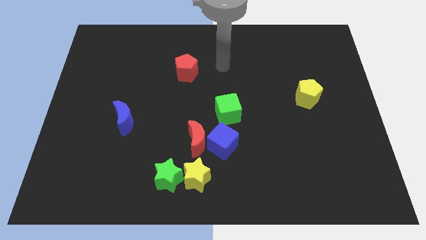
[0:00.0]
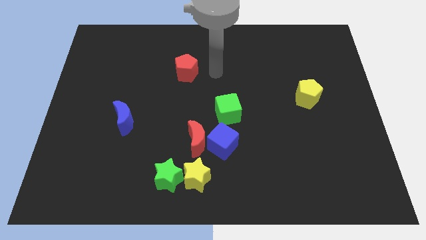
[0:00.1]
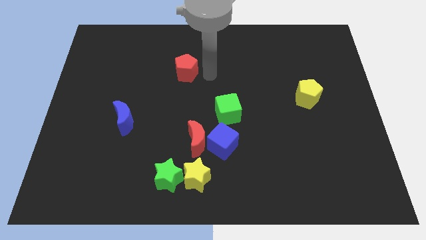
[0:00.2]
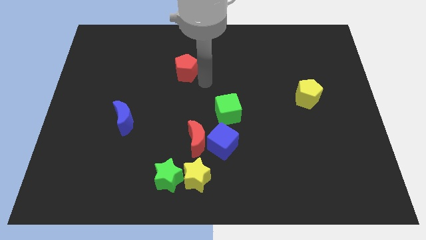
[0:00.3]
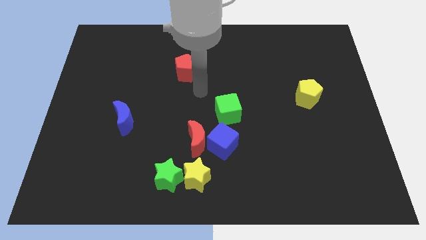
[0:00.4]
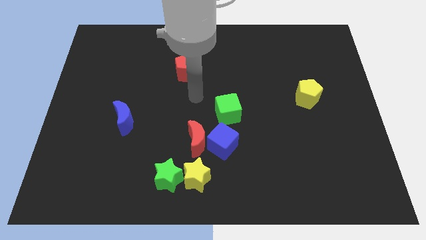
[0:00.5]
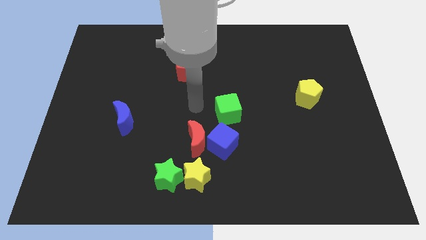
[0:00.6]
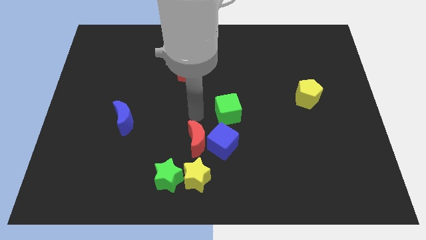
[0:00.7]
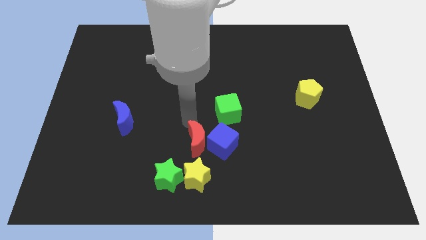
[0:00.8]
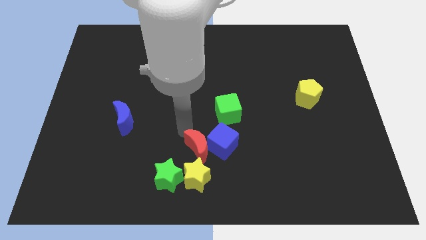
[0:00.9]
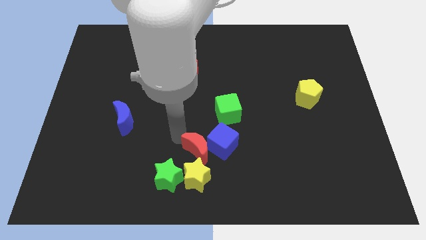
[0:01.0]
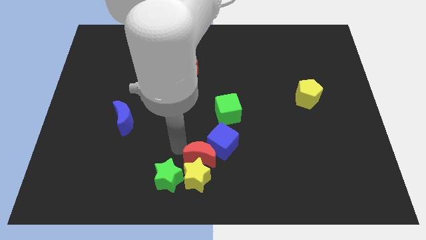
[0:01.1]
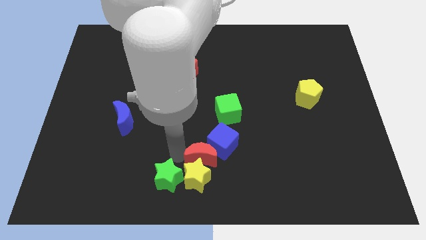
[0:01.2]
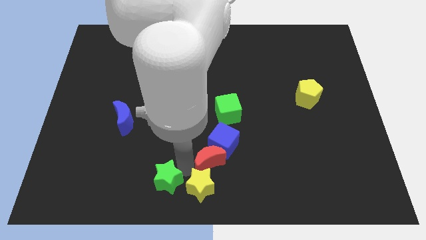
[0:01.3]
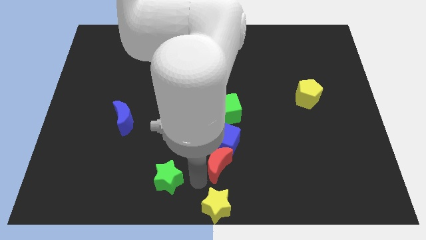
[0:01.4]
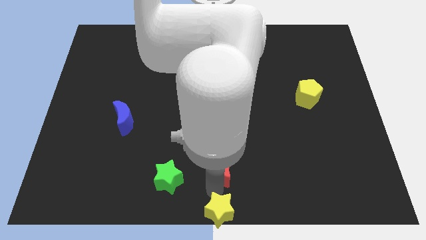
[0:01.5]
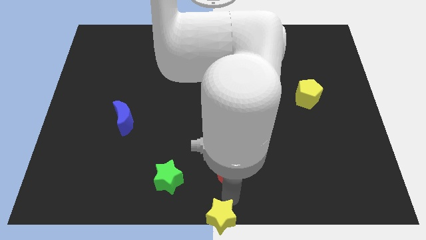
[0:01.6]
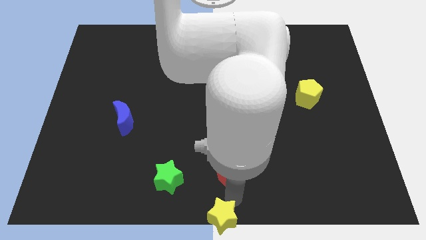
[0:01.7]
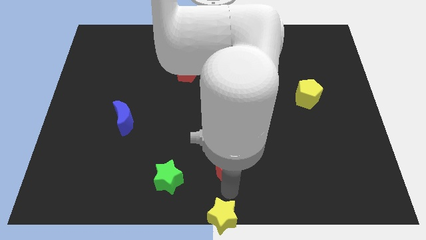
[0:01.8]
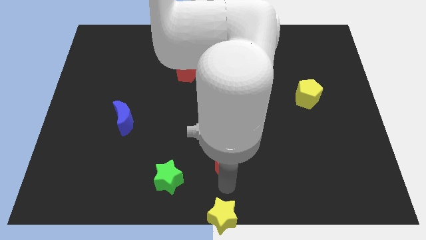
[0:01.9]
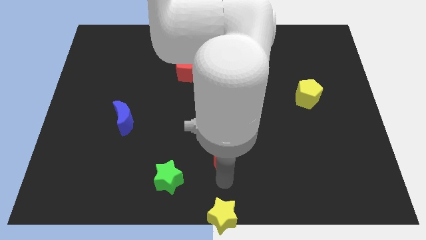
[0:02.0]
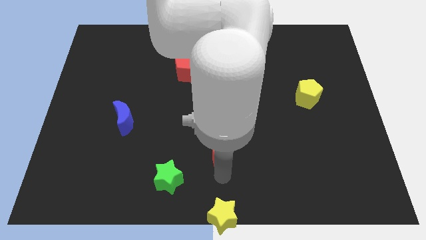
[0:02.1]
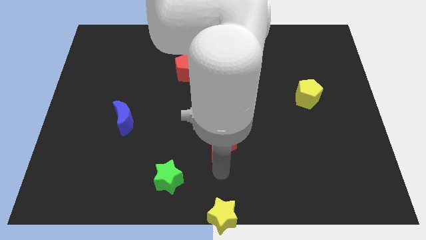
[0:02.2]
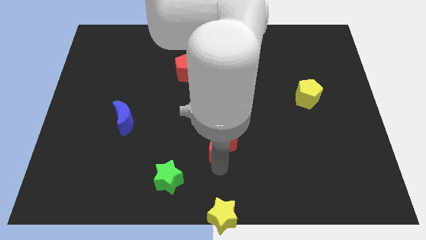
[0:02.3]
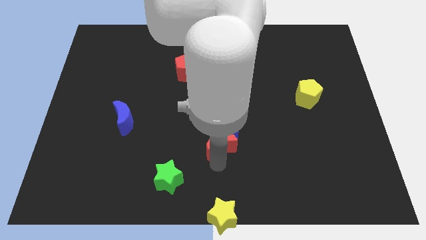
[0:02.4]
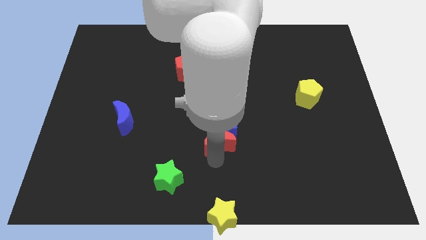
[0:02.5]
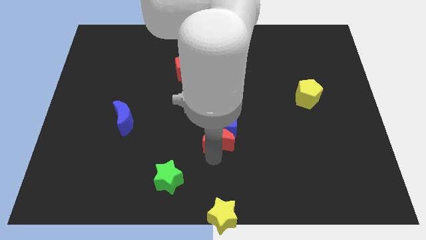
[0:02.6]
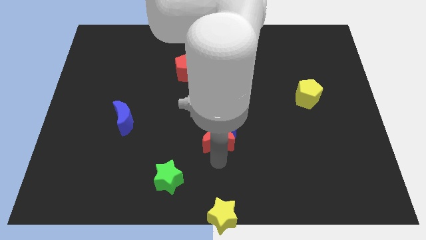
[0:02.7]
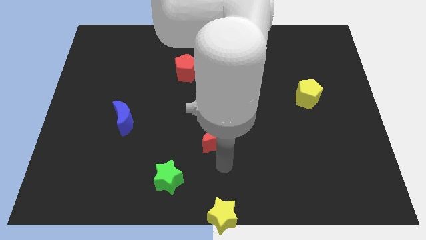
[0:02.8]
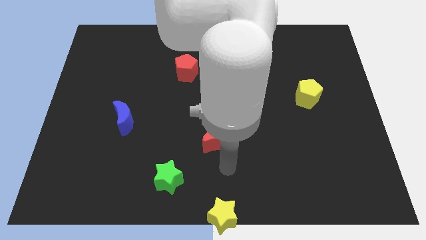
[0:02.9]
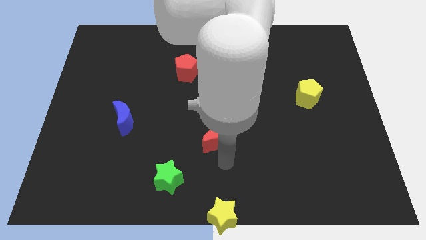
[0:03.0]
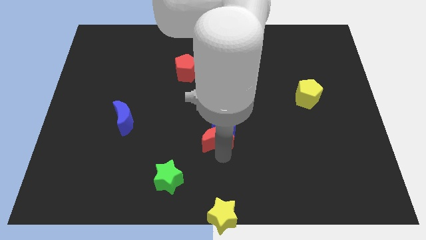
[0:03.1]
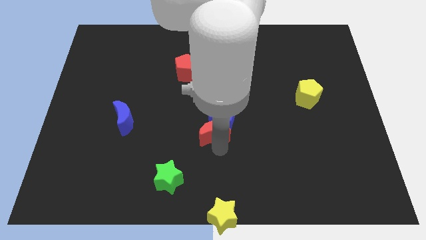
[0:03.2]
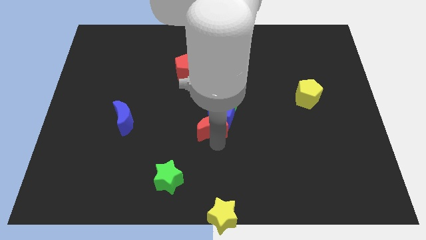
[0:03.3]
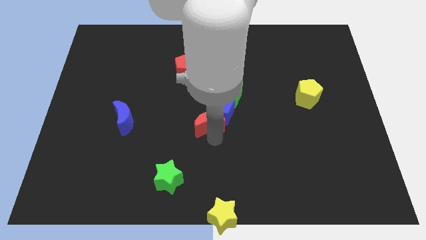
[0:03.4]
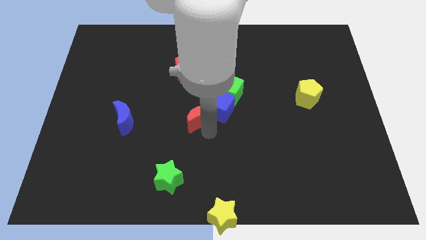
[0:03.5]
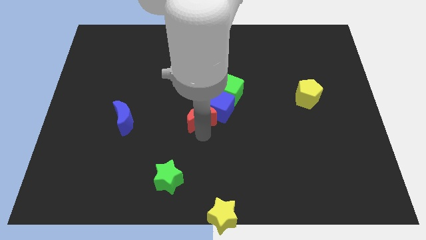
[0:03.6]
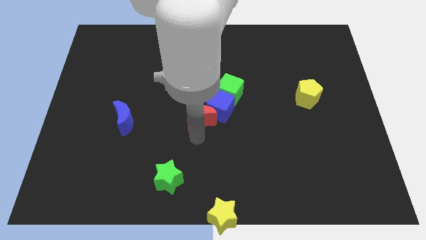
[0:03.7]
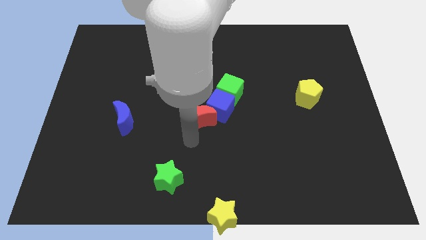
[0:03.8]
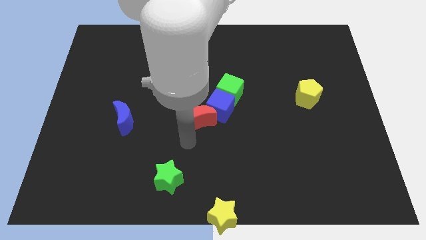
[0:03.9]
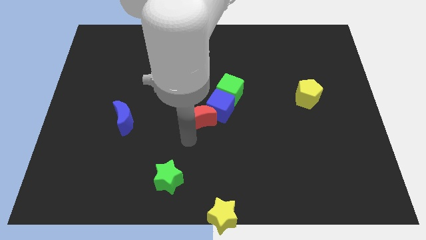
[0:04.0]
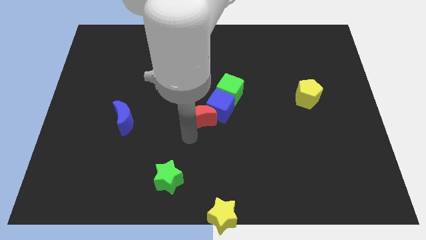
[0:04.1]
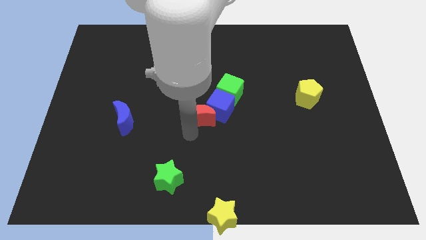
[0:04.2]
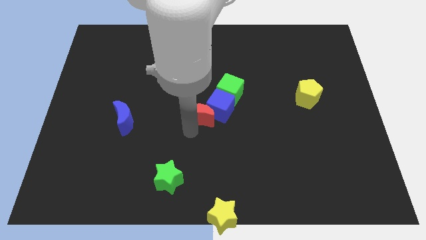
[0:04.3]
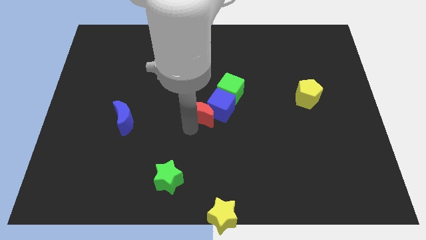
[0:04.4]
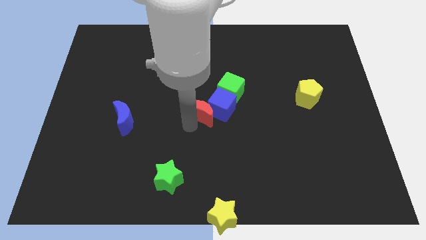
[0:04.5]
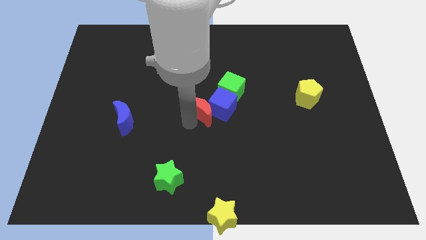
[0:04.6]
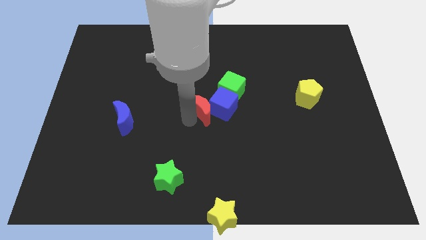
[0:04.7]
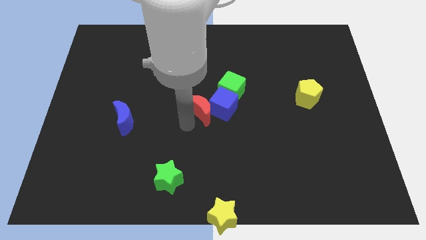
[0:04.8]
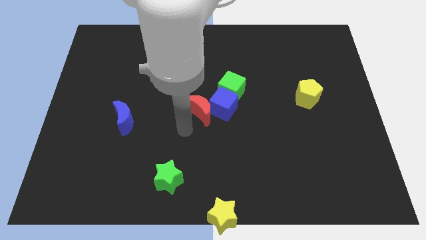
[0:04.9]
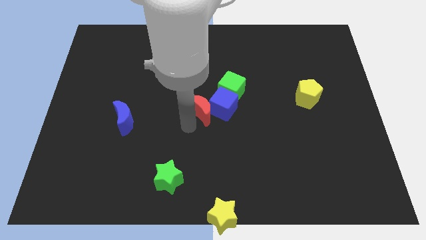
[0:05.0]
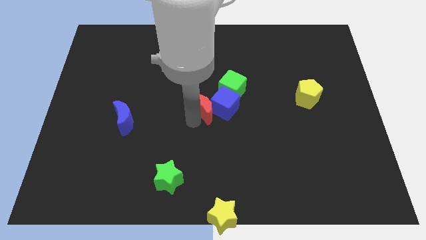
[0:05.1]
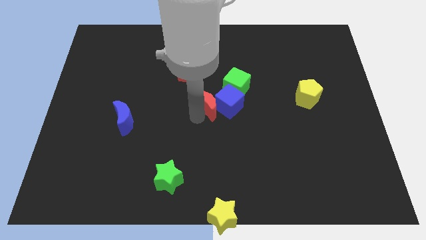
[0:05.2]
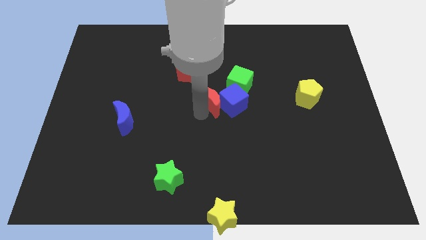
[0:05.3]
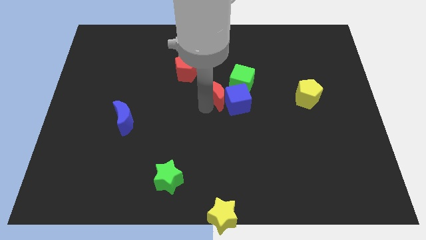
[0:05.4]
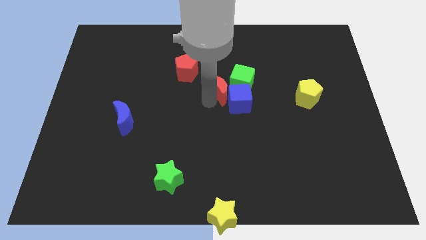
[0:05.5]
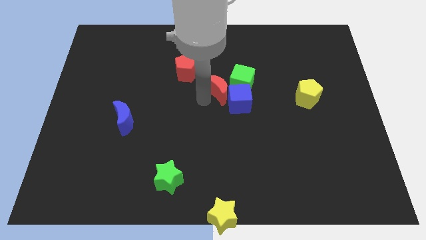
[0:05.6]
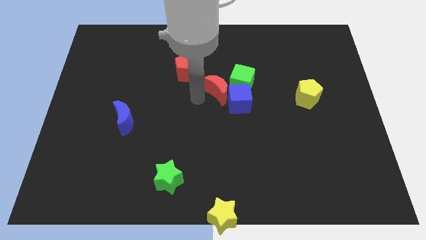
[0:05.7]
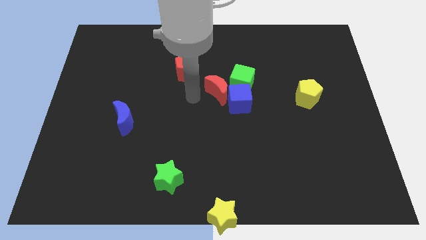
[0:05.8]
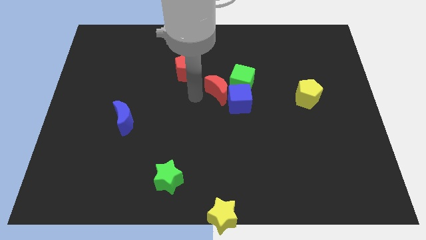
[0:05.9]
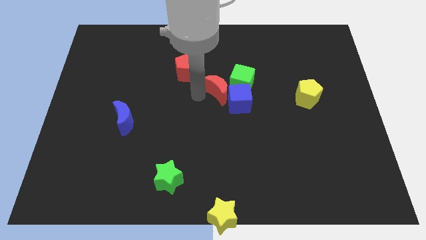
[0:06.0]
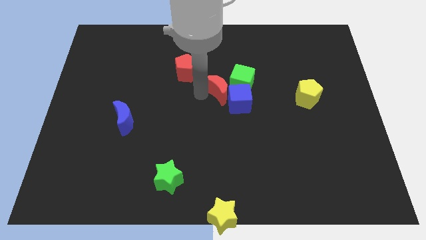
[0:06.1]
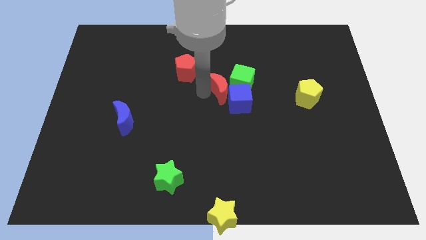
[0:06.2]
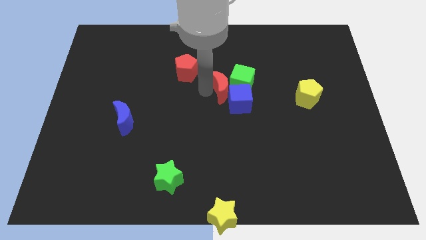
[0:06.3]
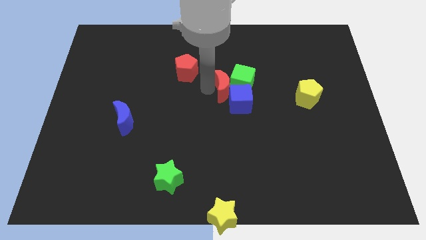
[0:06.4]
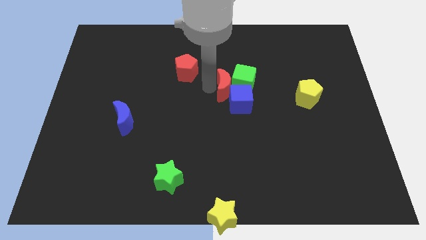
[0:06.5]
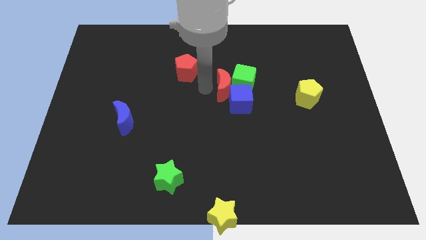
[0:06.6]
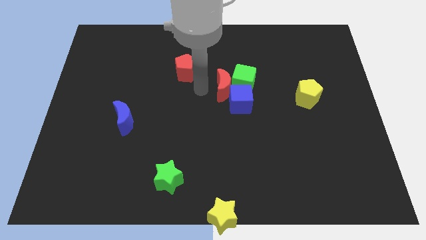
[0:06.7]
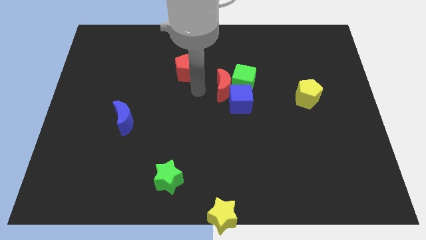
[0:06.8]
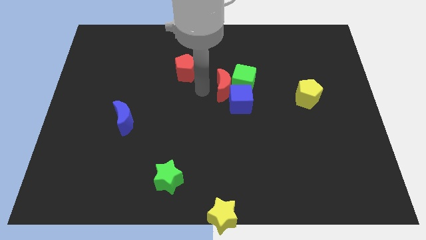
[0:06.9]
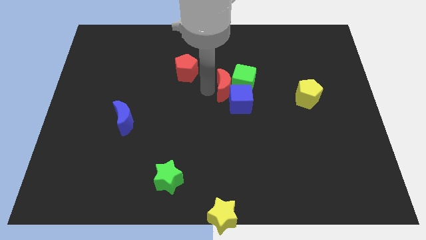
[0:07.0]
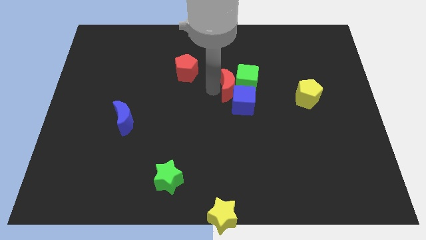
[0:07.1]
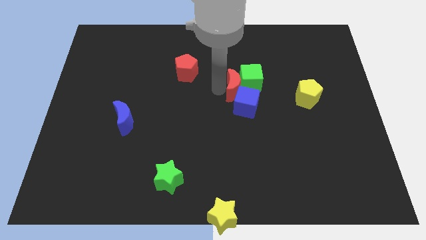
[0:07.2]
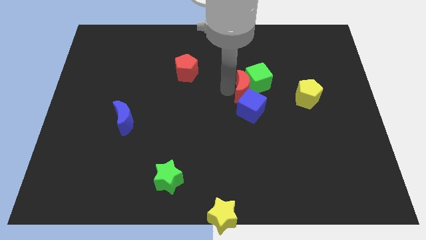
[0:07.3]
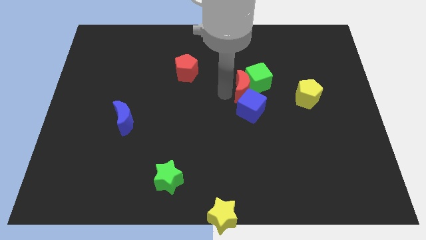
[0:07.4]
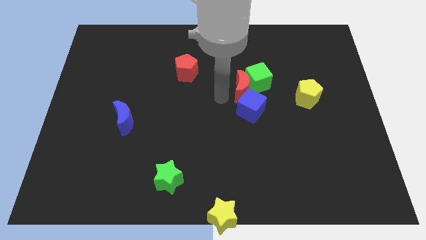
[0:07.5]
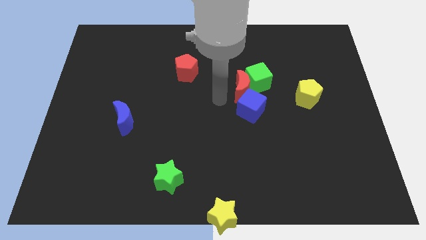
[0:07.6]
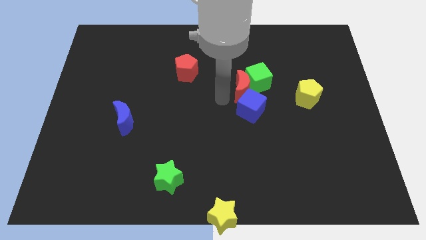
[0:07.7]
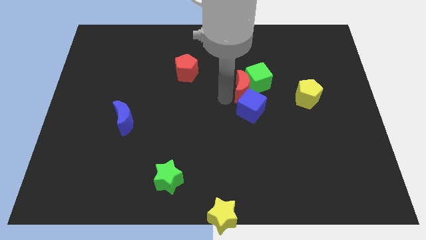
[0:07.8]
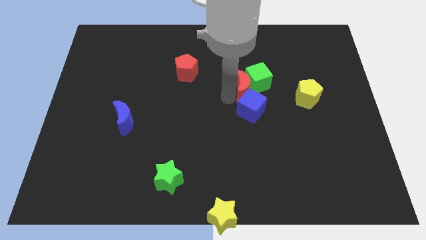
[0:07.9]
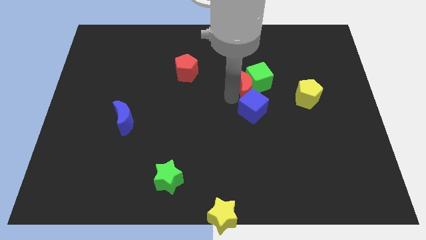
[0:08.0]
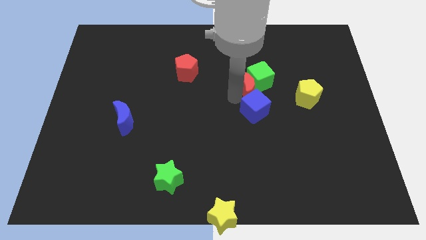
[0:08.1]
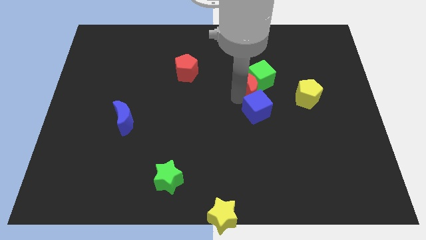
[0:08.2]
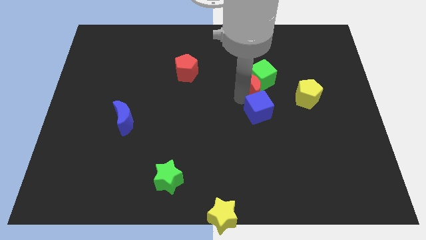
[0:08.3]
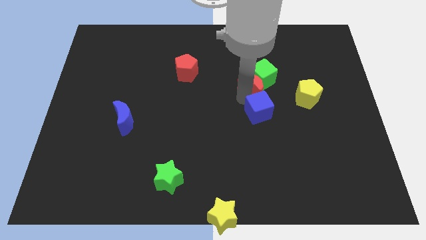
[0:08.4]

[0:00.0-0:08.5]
push the red moon up and to the right
